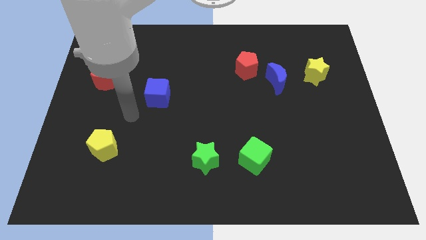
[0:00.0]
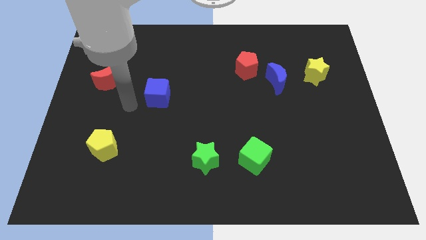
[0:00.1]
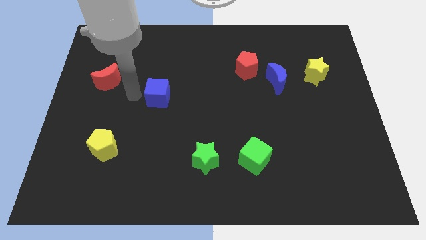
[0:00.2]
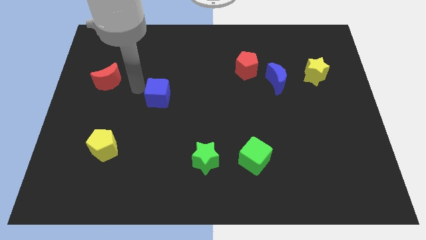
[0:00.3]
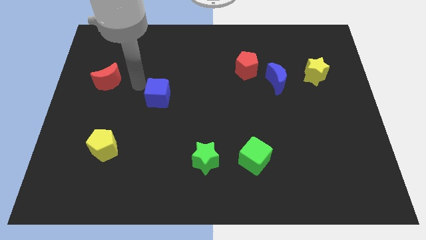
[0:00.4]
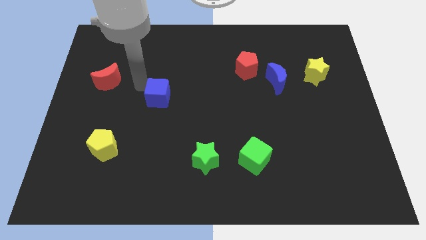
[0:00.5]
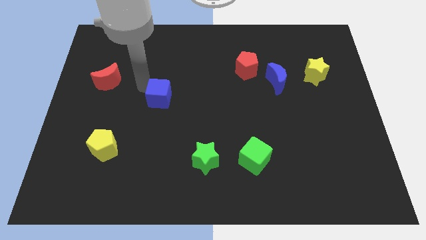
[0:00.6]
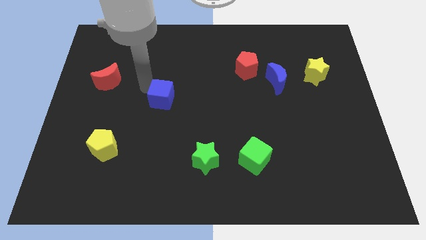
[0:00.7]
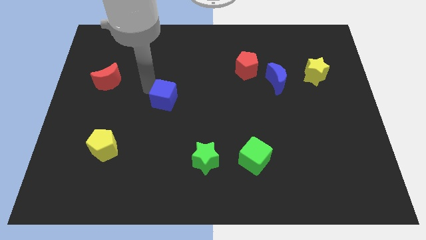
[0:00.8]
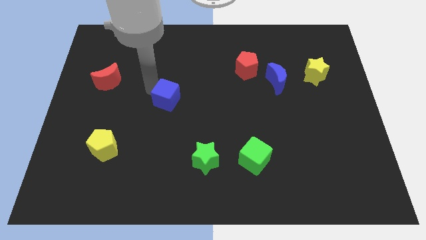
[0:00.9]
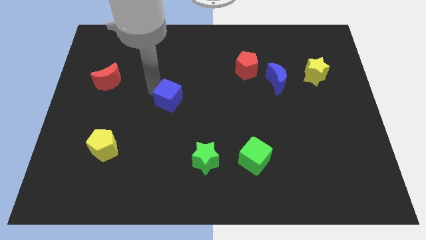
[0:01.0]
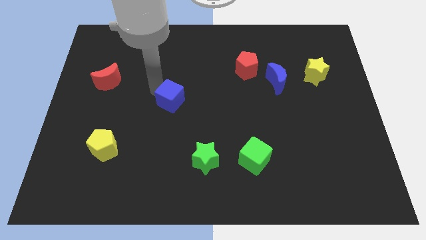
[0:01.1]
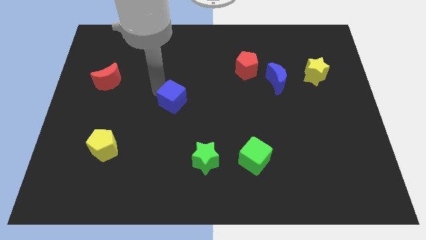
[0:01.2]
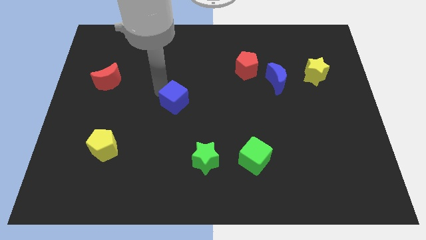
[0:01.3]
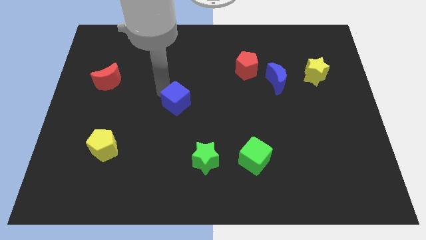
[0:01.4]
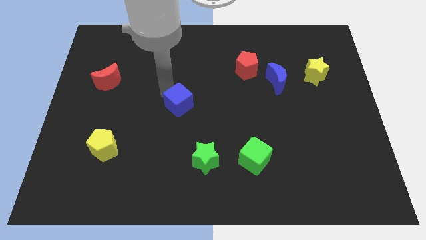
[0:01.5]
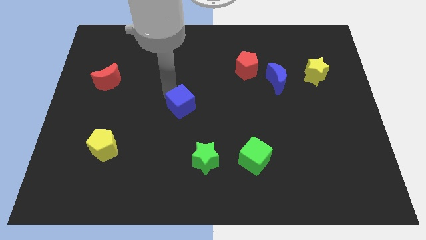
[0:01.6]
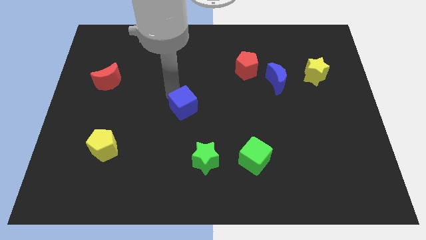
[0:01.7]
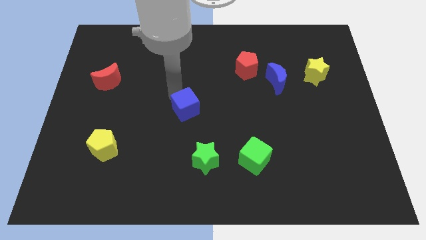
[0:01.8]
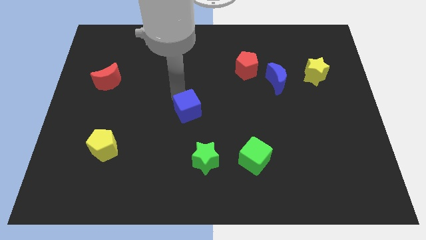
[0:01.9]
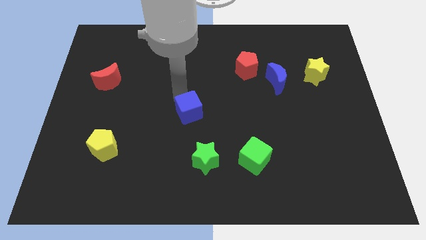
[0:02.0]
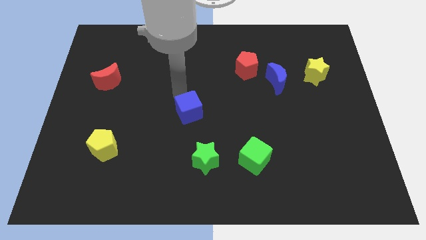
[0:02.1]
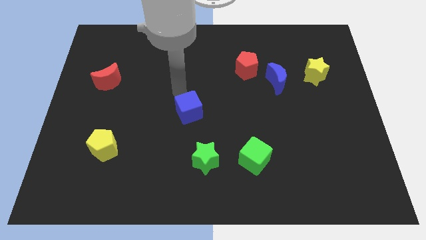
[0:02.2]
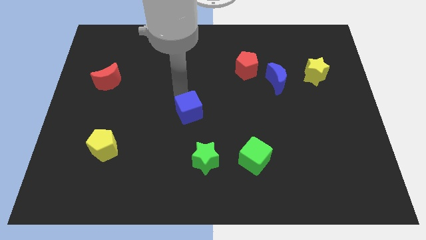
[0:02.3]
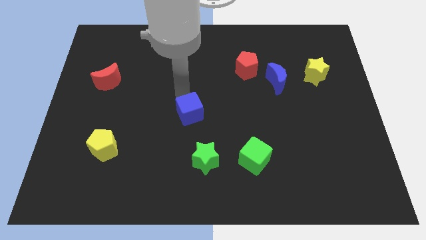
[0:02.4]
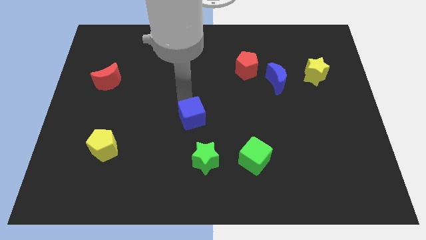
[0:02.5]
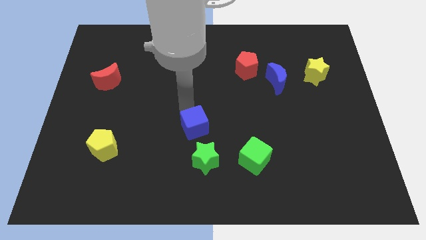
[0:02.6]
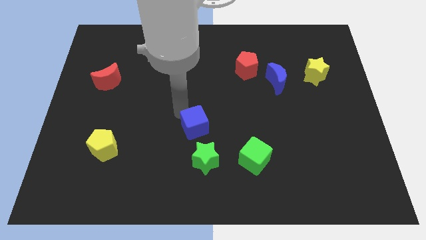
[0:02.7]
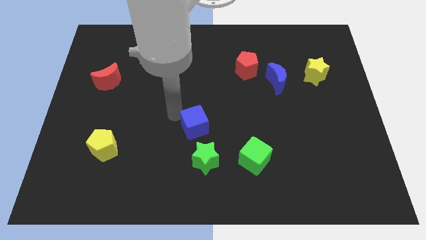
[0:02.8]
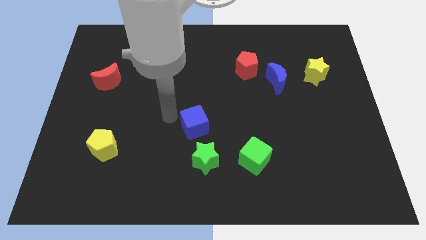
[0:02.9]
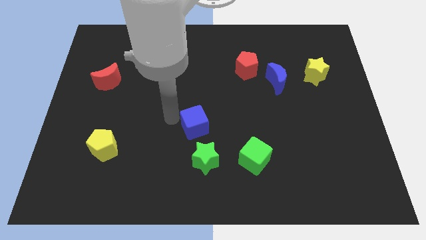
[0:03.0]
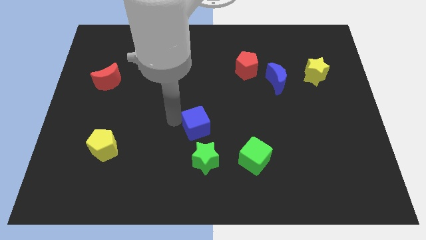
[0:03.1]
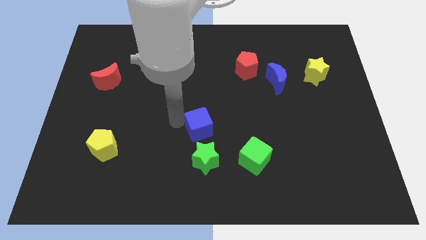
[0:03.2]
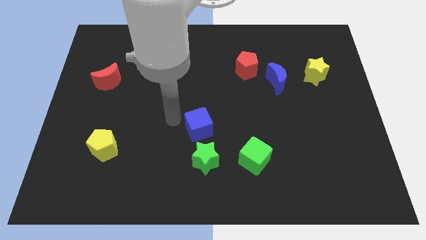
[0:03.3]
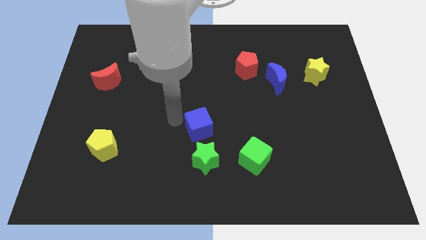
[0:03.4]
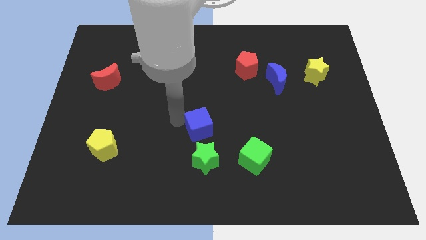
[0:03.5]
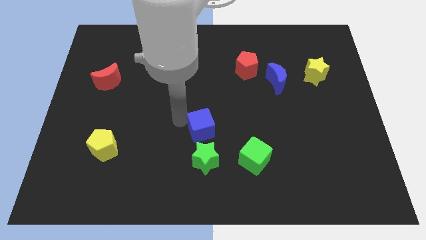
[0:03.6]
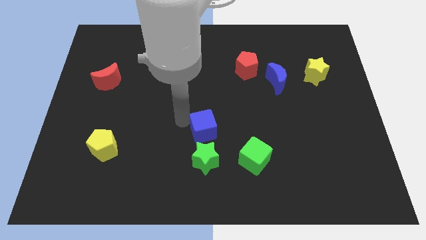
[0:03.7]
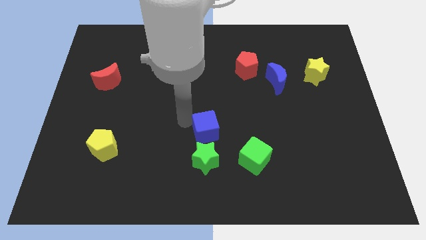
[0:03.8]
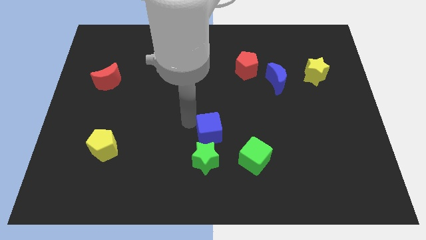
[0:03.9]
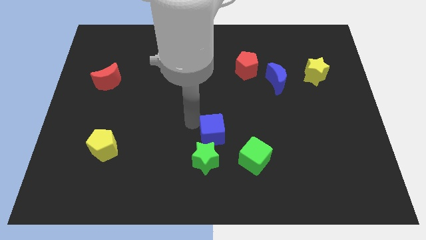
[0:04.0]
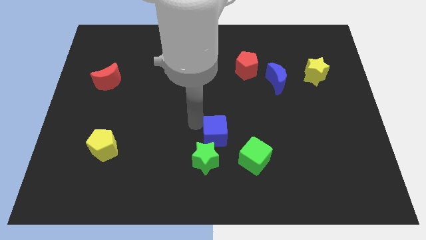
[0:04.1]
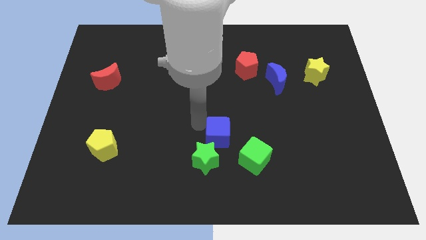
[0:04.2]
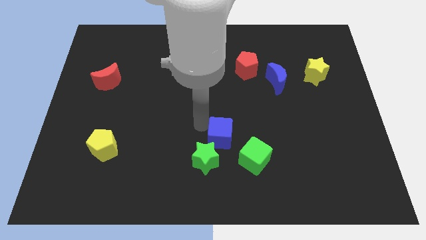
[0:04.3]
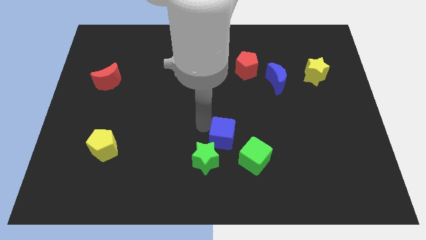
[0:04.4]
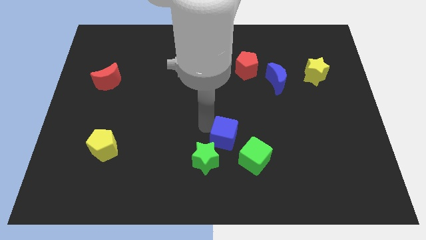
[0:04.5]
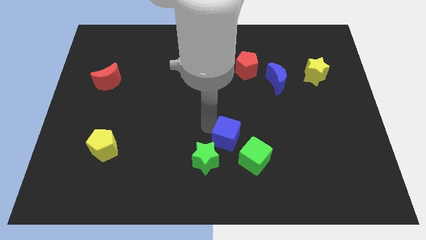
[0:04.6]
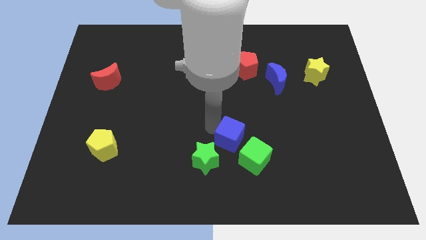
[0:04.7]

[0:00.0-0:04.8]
push the blue cube down and right diagonally

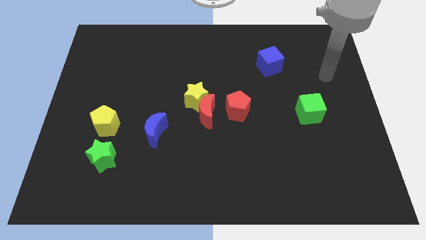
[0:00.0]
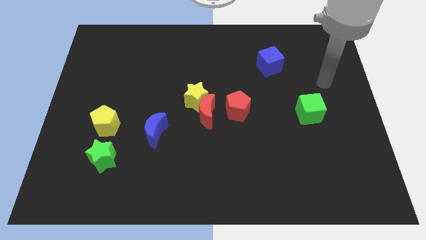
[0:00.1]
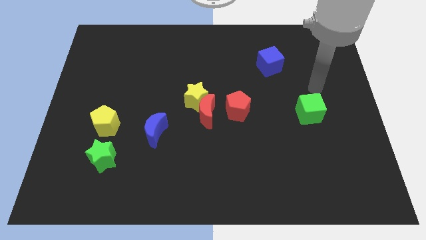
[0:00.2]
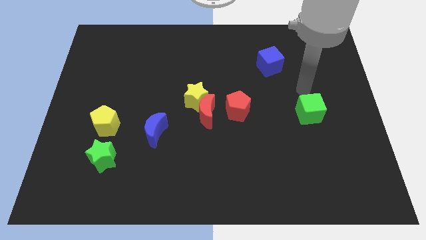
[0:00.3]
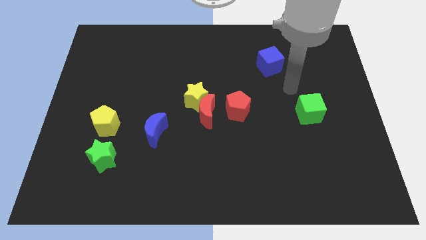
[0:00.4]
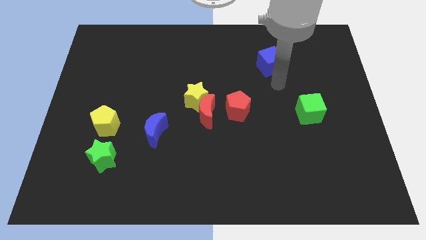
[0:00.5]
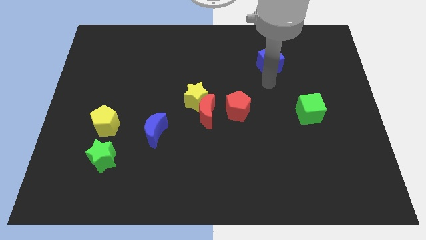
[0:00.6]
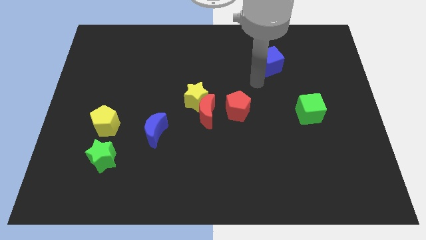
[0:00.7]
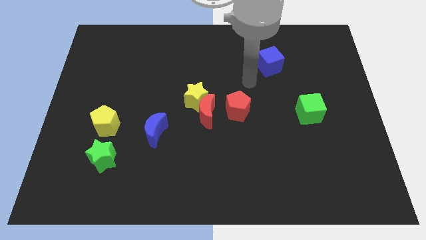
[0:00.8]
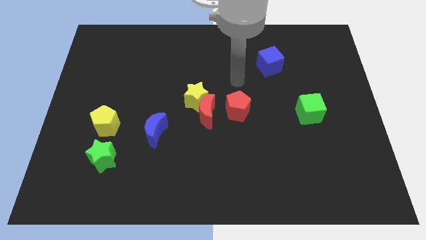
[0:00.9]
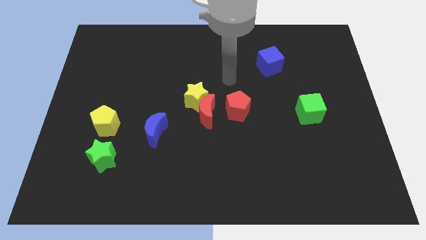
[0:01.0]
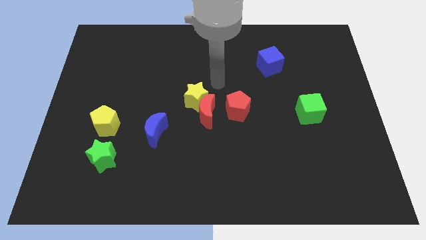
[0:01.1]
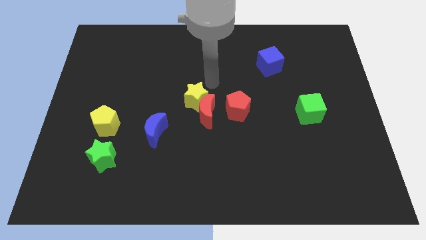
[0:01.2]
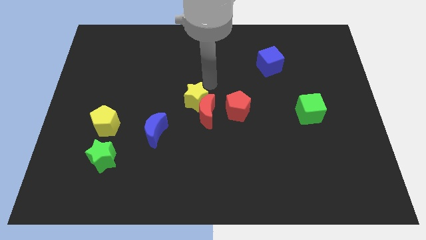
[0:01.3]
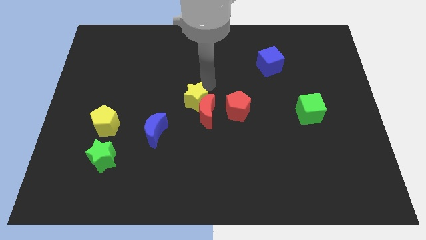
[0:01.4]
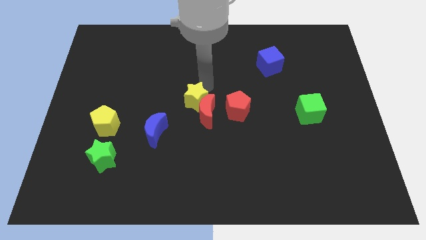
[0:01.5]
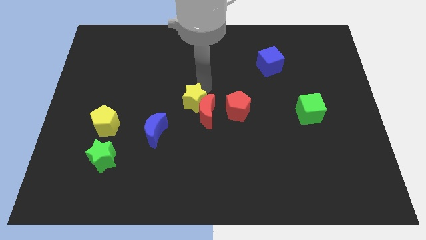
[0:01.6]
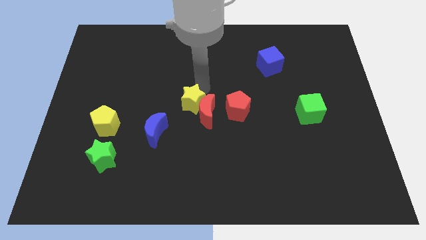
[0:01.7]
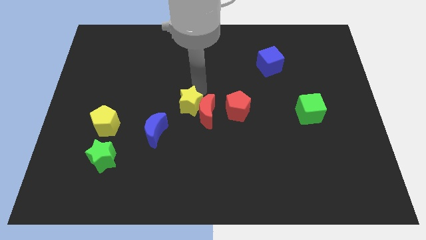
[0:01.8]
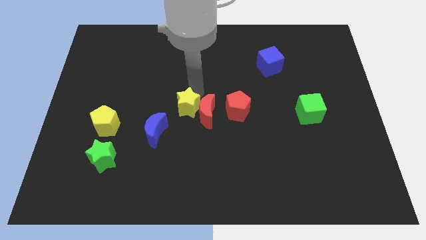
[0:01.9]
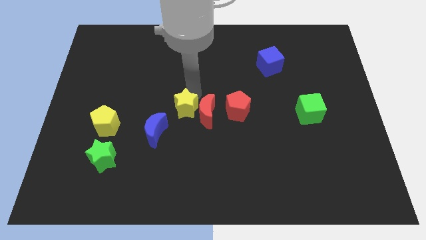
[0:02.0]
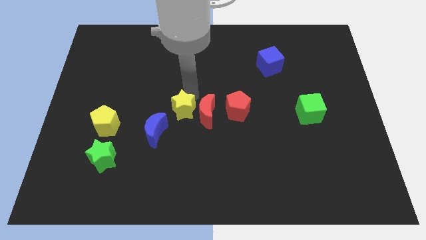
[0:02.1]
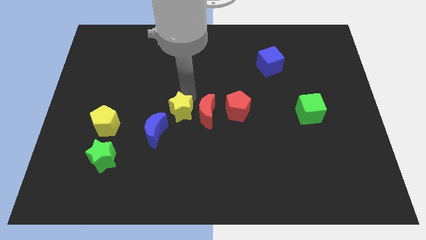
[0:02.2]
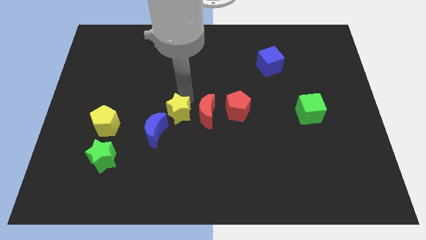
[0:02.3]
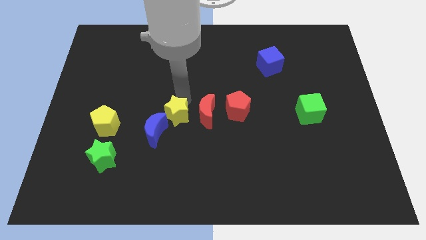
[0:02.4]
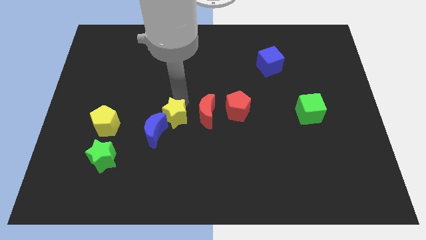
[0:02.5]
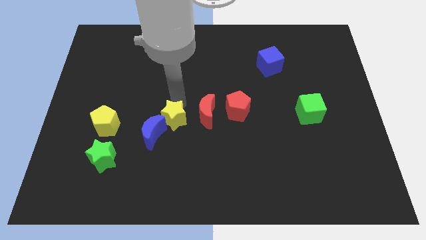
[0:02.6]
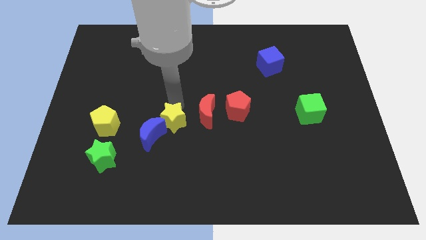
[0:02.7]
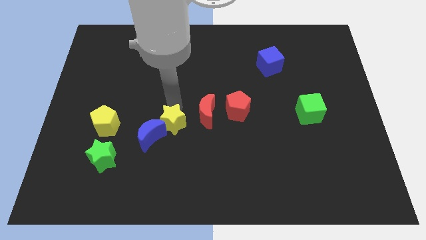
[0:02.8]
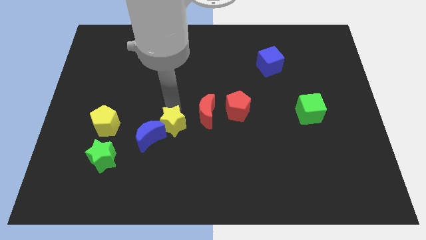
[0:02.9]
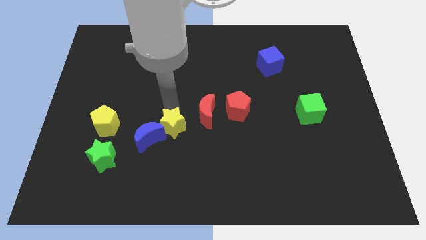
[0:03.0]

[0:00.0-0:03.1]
push the yellow star downwards a little bit
